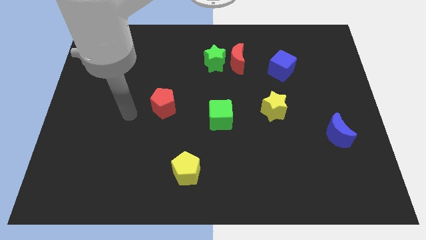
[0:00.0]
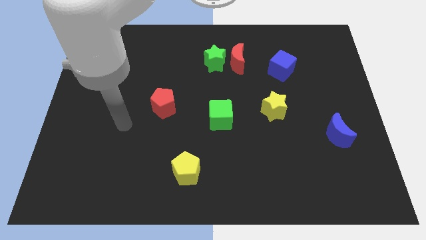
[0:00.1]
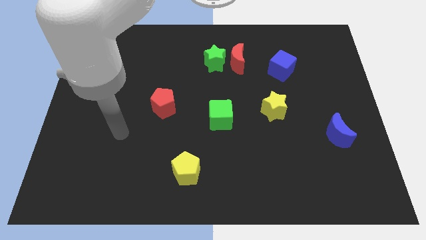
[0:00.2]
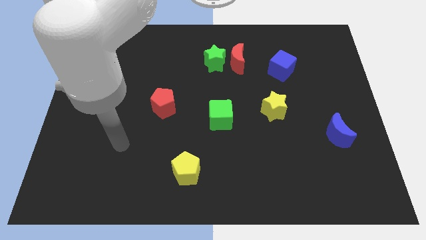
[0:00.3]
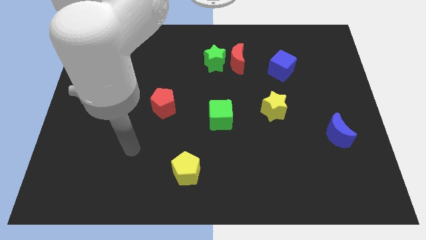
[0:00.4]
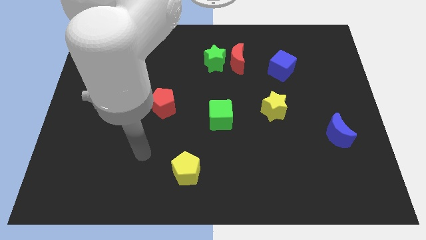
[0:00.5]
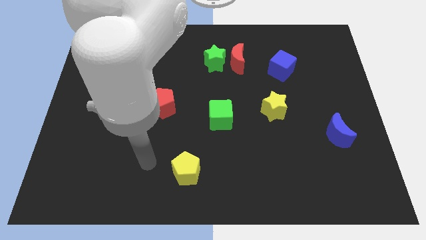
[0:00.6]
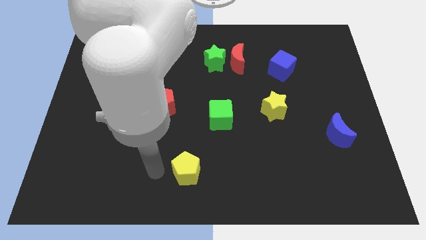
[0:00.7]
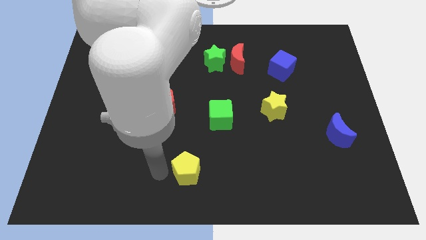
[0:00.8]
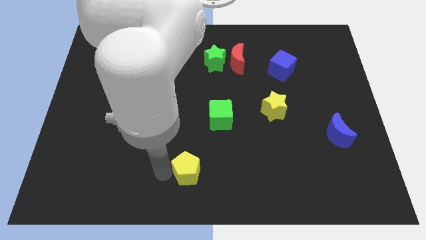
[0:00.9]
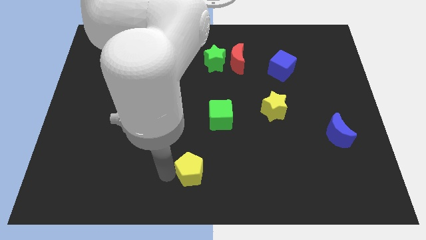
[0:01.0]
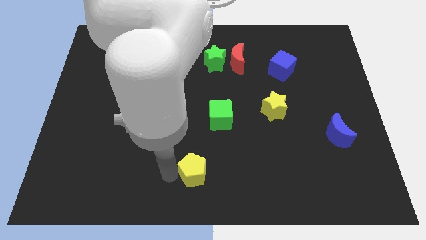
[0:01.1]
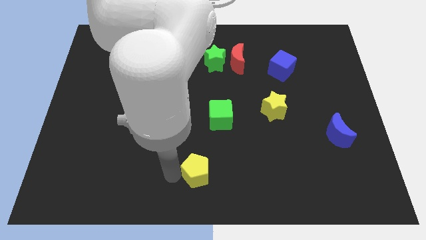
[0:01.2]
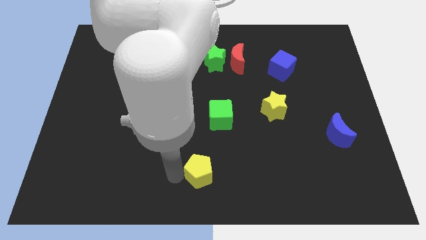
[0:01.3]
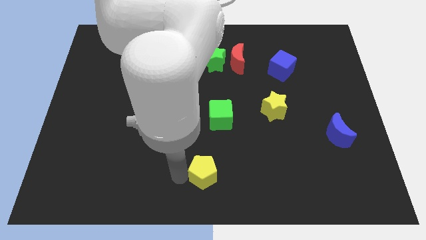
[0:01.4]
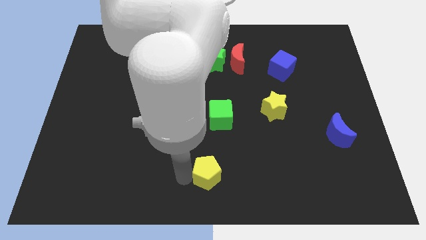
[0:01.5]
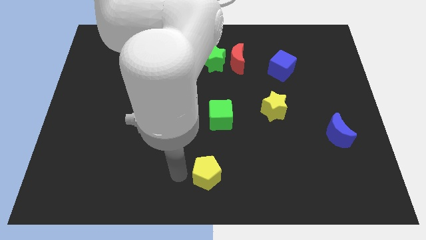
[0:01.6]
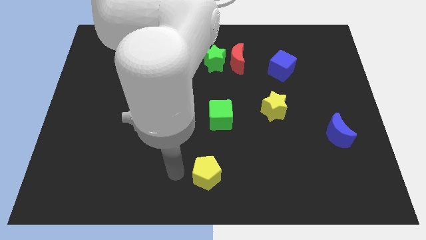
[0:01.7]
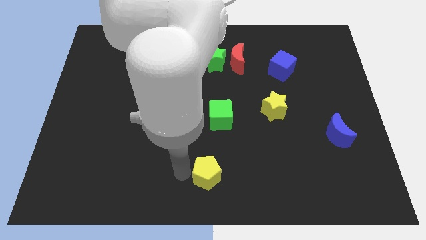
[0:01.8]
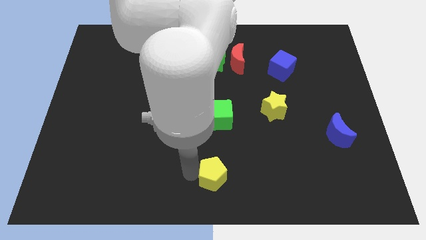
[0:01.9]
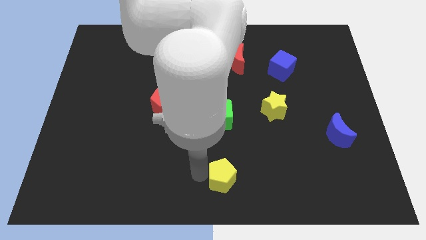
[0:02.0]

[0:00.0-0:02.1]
move the yellow pentagon a little to the right

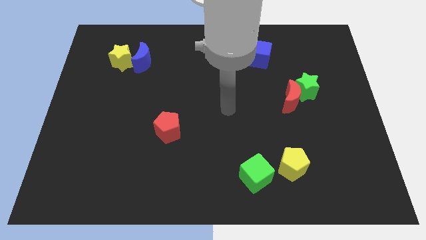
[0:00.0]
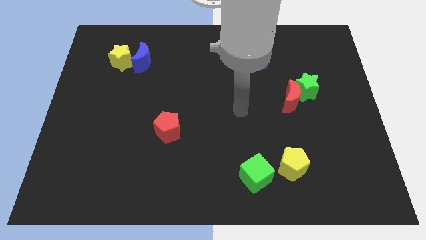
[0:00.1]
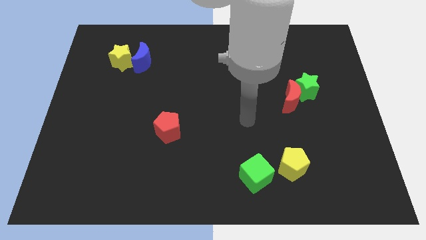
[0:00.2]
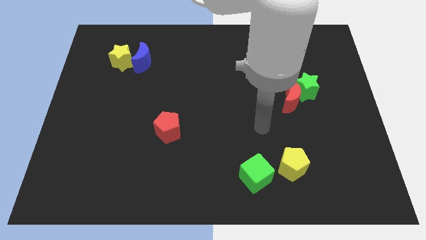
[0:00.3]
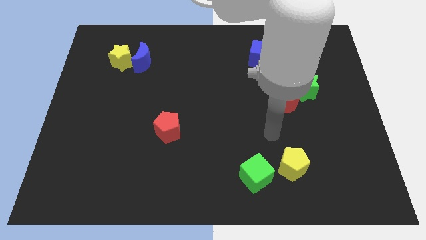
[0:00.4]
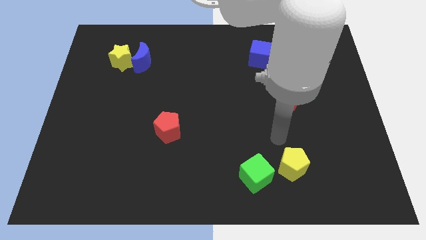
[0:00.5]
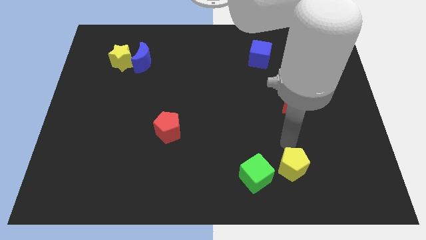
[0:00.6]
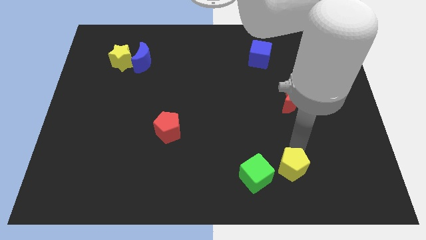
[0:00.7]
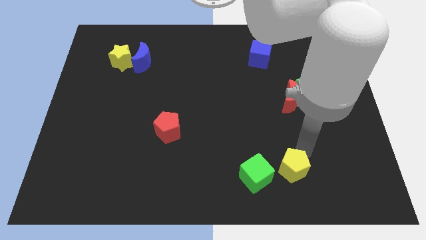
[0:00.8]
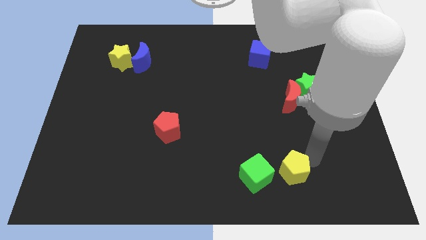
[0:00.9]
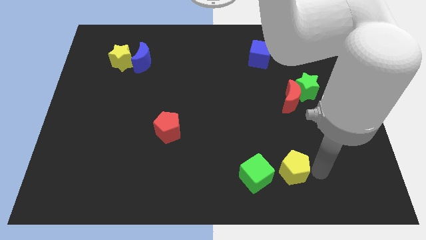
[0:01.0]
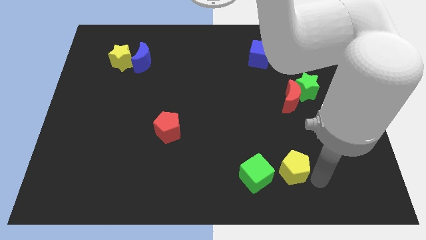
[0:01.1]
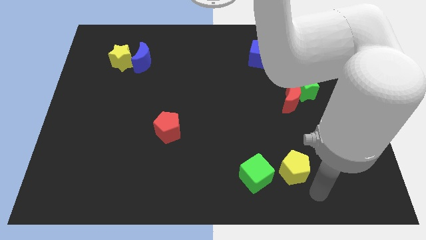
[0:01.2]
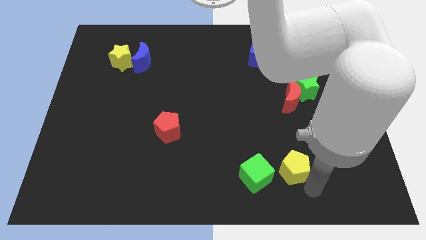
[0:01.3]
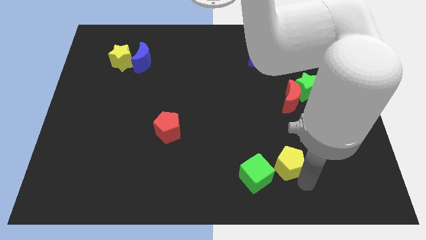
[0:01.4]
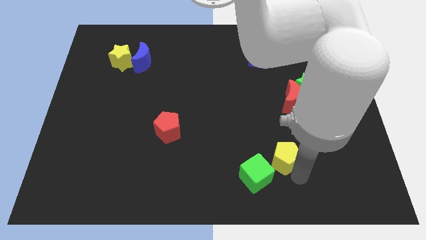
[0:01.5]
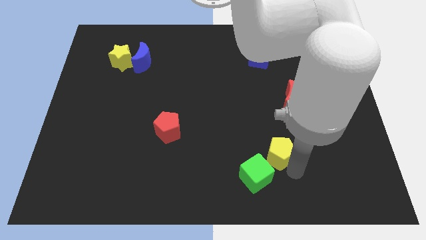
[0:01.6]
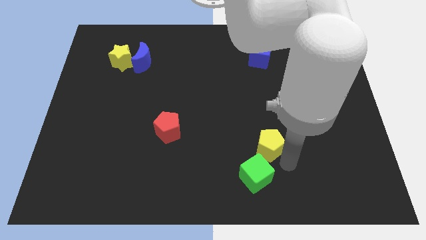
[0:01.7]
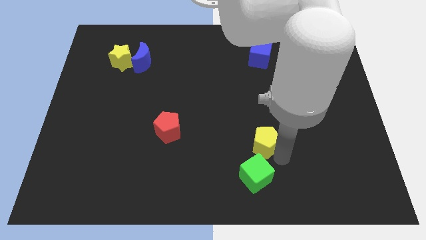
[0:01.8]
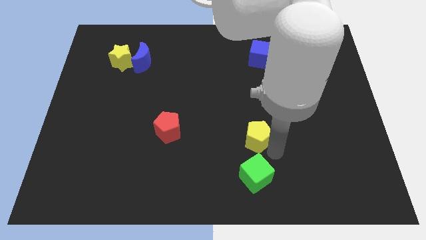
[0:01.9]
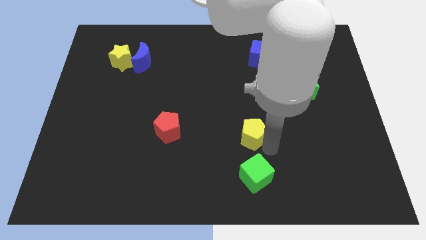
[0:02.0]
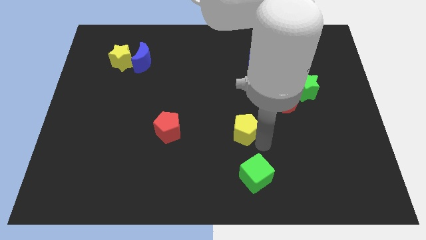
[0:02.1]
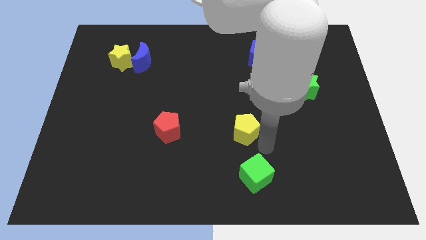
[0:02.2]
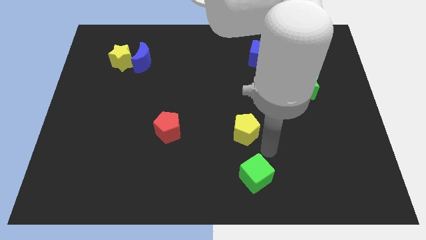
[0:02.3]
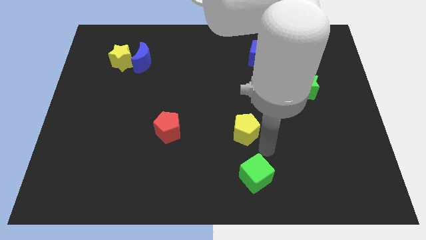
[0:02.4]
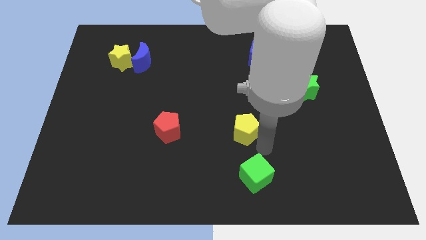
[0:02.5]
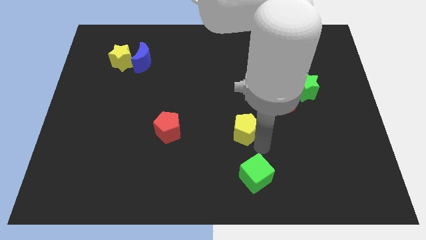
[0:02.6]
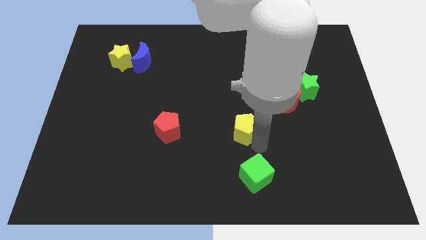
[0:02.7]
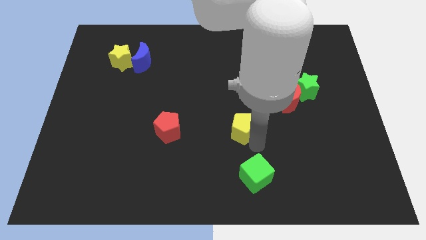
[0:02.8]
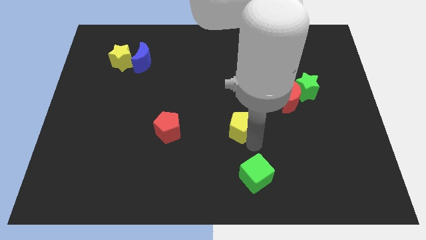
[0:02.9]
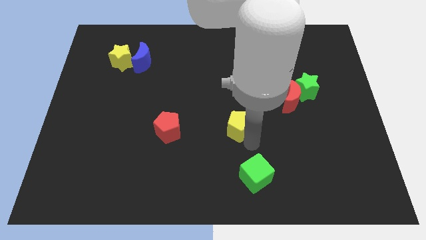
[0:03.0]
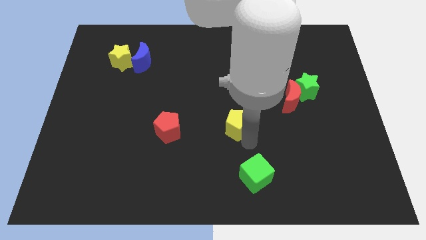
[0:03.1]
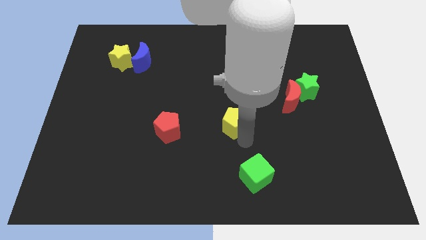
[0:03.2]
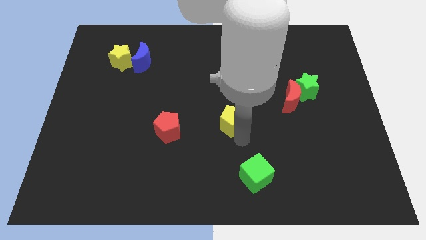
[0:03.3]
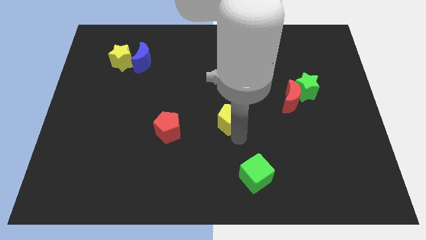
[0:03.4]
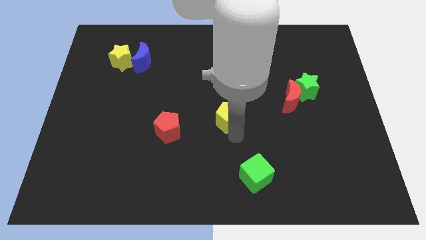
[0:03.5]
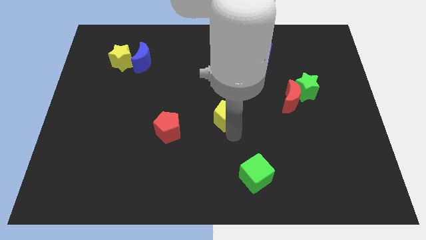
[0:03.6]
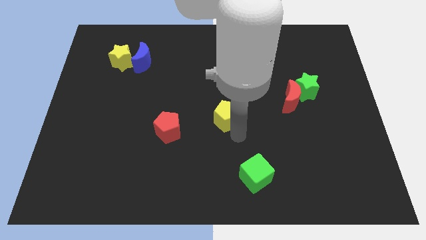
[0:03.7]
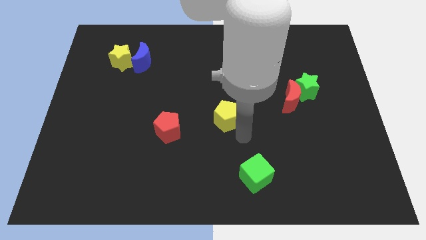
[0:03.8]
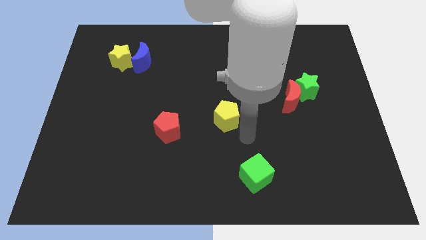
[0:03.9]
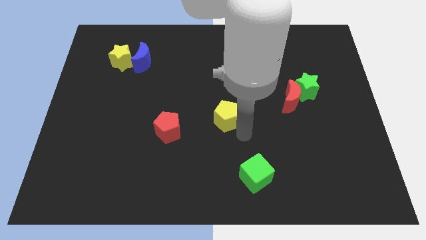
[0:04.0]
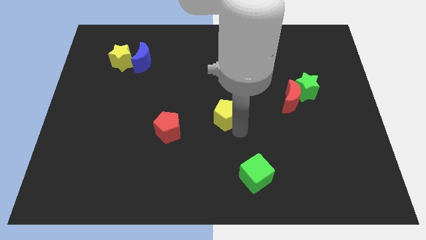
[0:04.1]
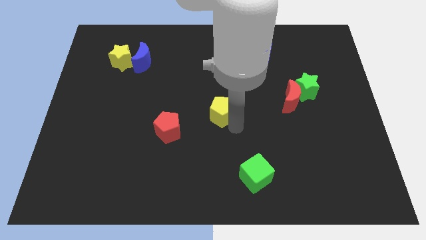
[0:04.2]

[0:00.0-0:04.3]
push the yellow pentagon upwards and to the left

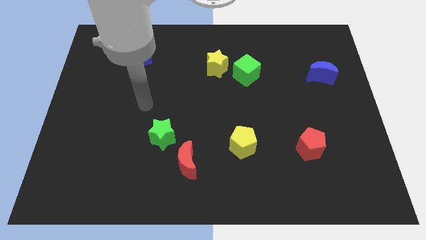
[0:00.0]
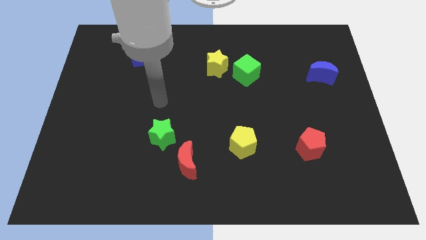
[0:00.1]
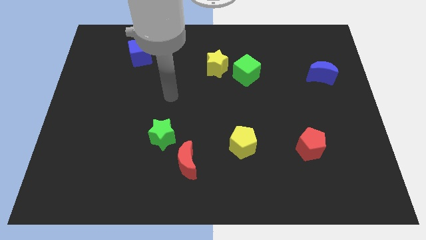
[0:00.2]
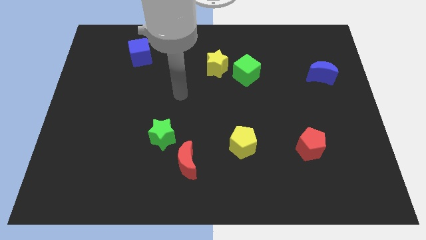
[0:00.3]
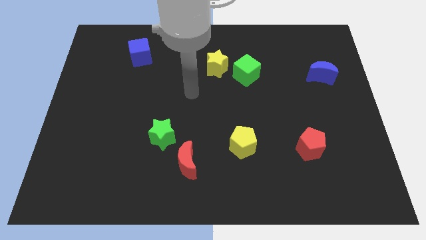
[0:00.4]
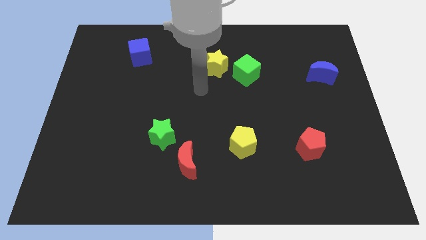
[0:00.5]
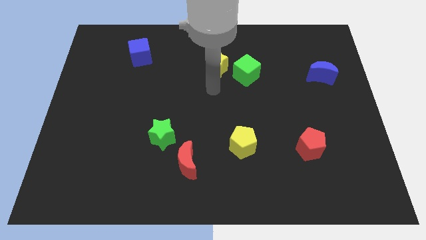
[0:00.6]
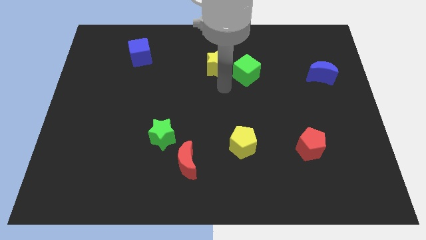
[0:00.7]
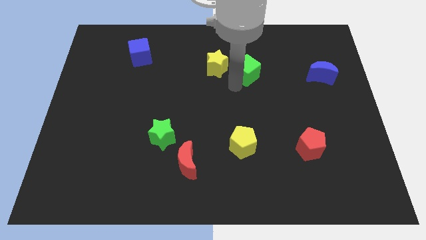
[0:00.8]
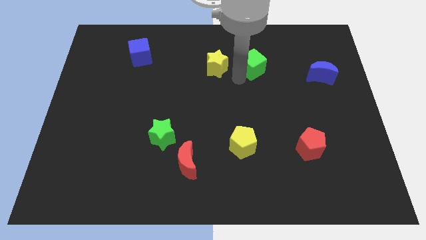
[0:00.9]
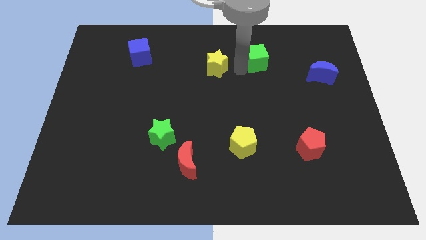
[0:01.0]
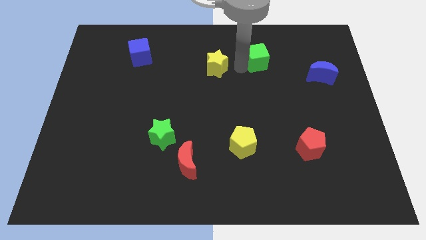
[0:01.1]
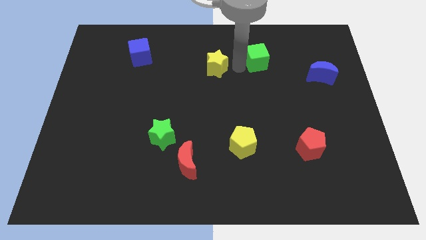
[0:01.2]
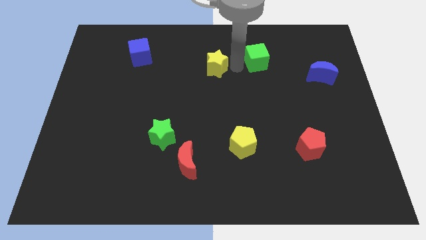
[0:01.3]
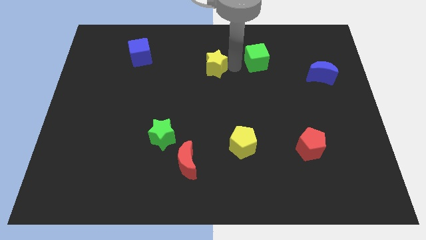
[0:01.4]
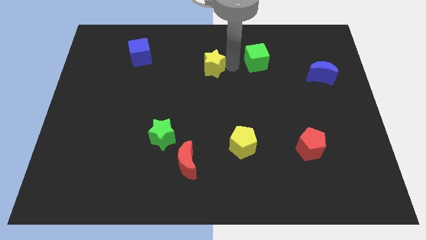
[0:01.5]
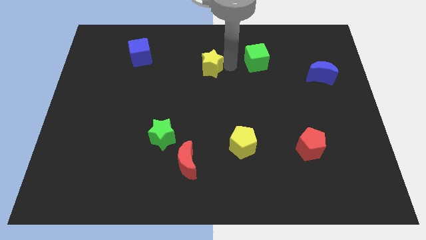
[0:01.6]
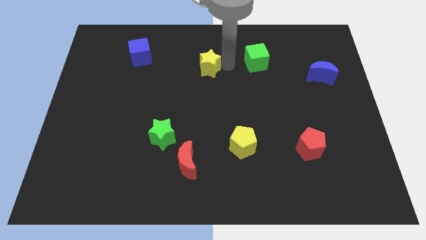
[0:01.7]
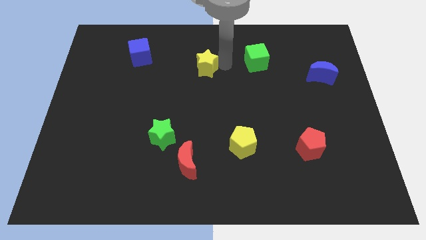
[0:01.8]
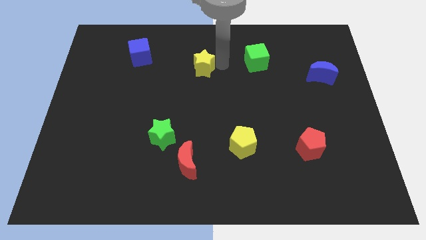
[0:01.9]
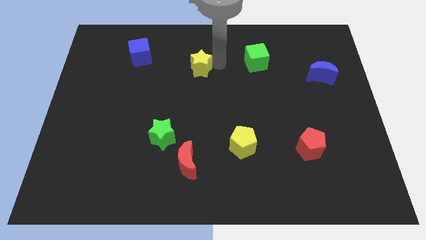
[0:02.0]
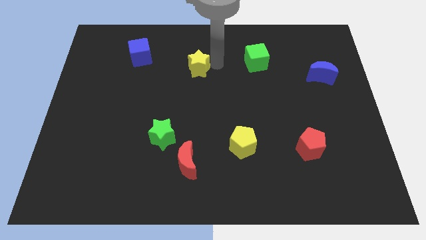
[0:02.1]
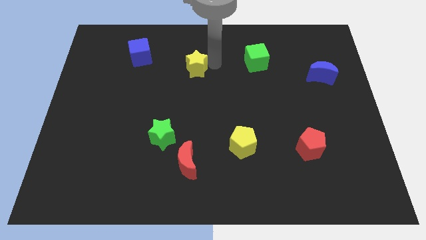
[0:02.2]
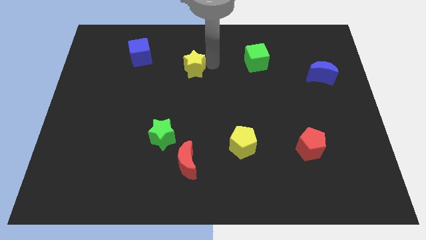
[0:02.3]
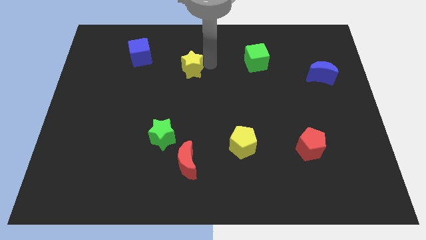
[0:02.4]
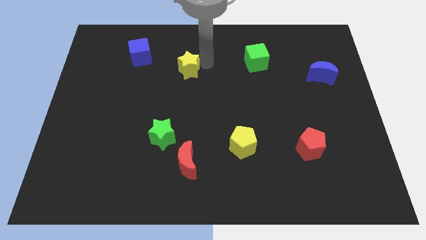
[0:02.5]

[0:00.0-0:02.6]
push the yellow star a little bit left
